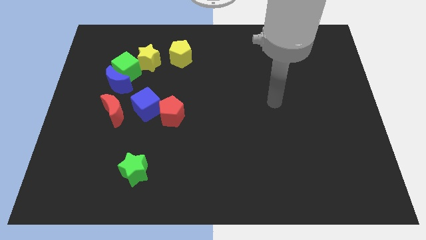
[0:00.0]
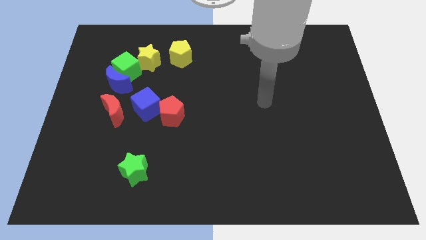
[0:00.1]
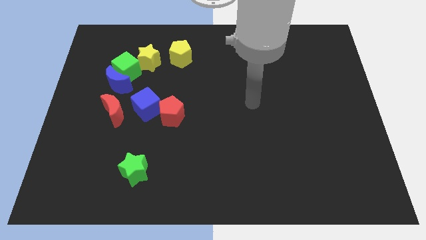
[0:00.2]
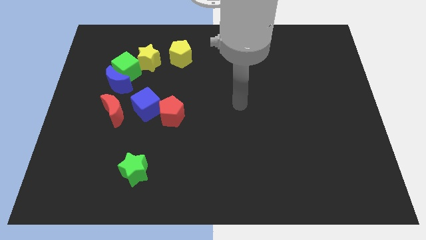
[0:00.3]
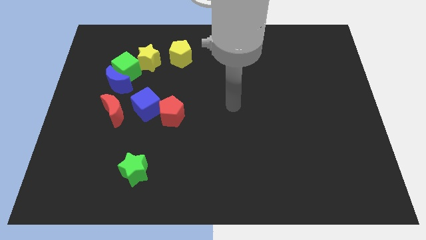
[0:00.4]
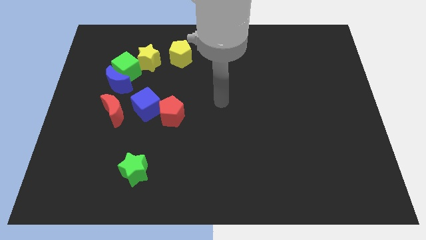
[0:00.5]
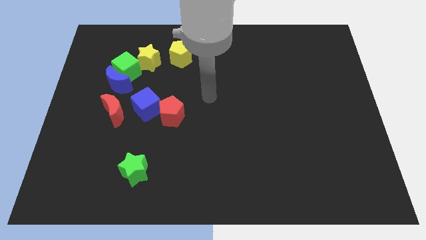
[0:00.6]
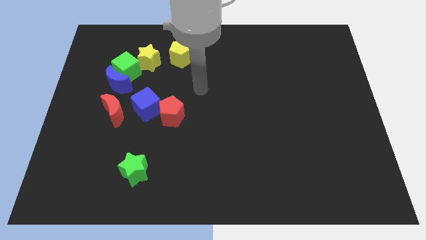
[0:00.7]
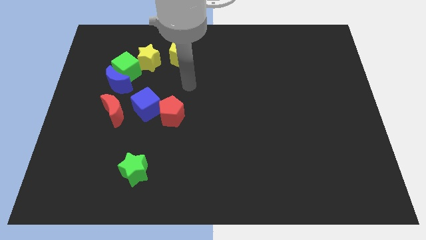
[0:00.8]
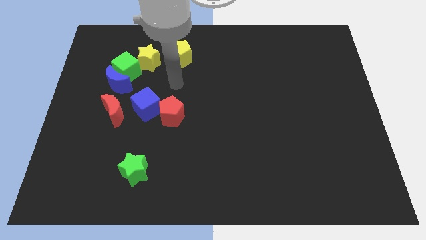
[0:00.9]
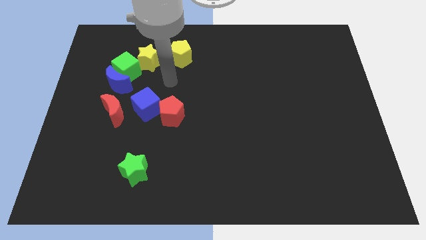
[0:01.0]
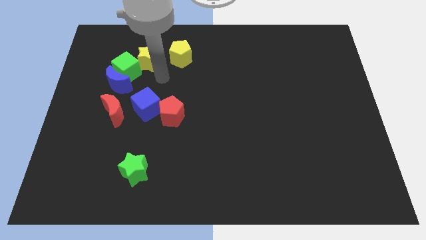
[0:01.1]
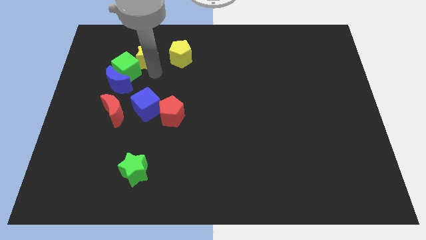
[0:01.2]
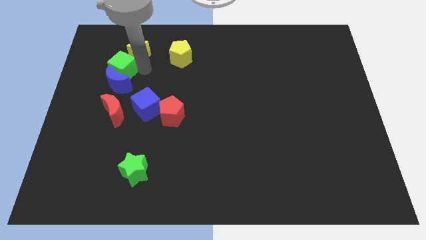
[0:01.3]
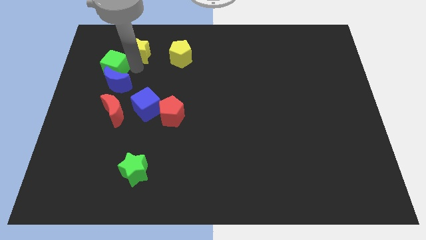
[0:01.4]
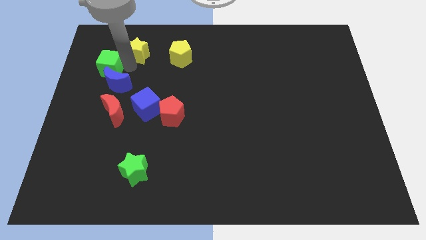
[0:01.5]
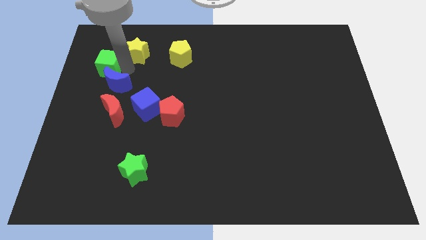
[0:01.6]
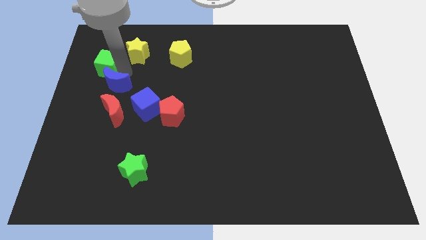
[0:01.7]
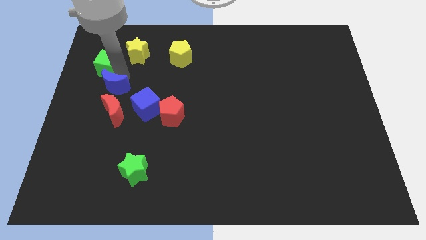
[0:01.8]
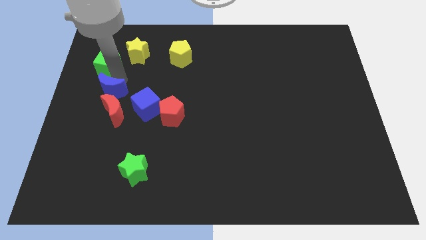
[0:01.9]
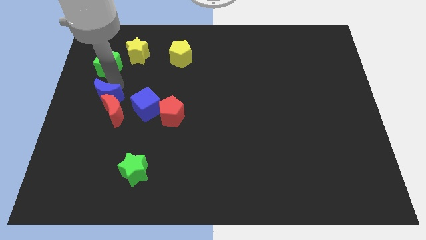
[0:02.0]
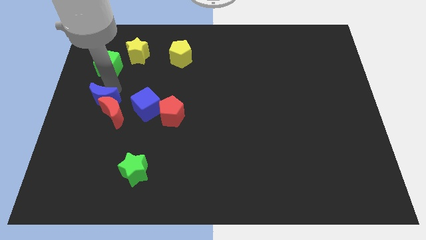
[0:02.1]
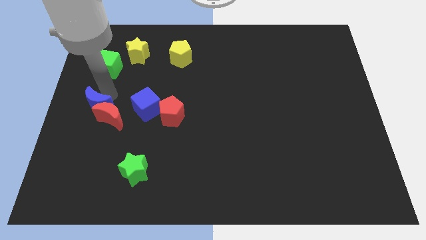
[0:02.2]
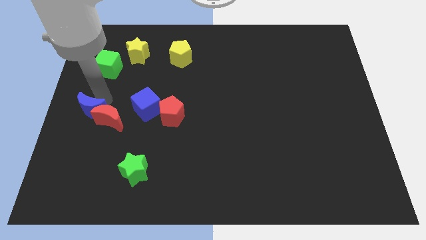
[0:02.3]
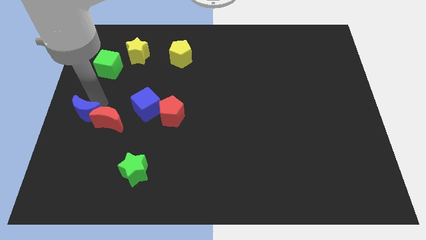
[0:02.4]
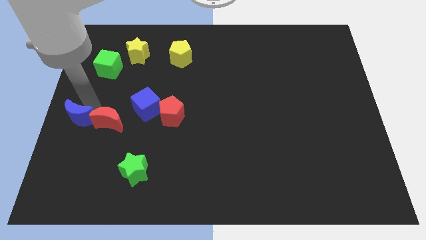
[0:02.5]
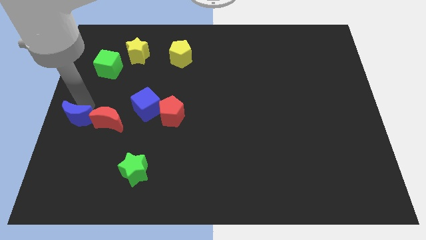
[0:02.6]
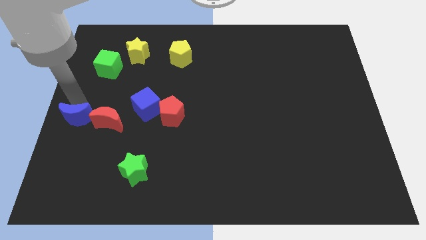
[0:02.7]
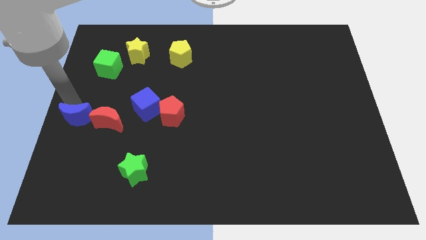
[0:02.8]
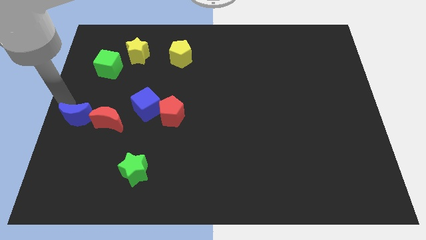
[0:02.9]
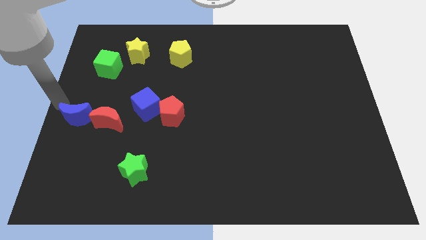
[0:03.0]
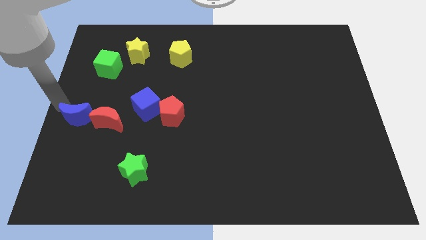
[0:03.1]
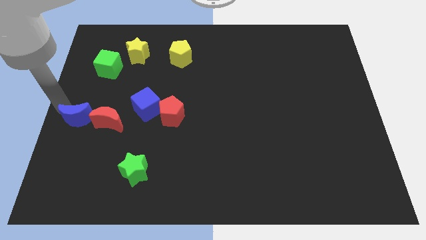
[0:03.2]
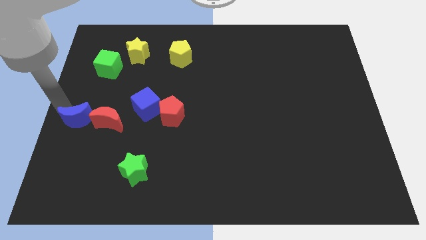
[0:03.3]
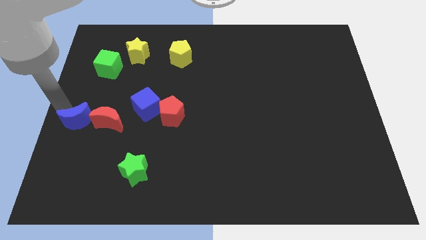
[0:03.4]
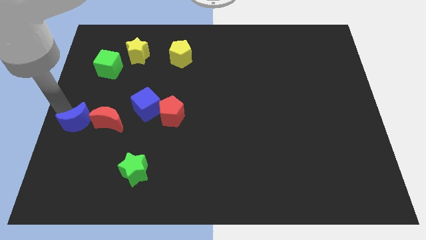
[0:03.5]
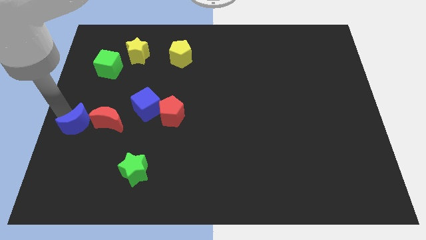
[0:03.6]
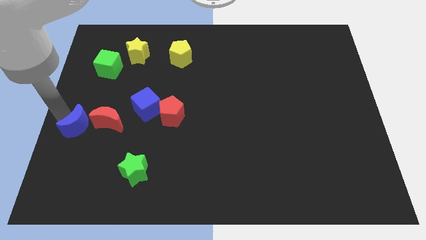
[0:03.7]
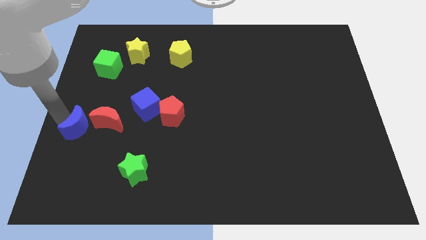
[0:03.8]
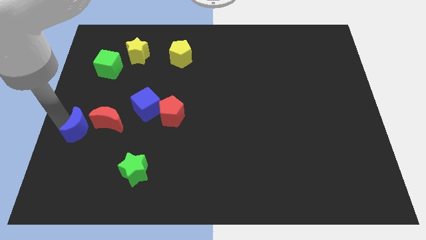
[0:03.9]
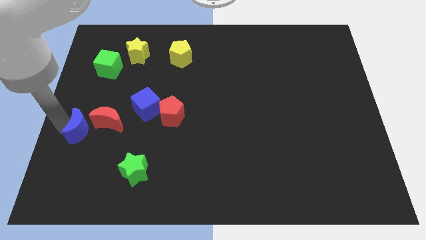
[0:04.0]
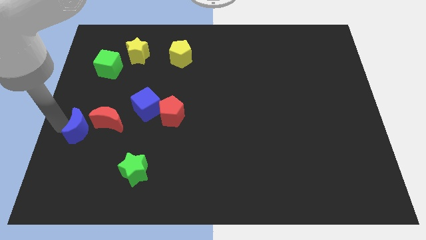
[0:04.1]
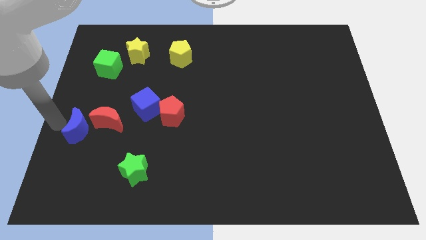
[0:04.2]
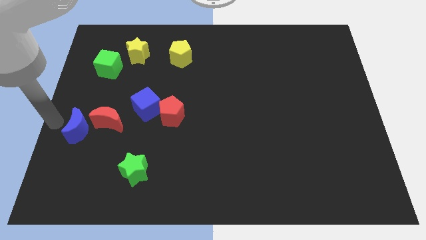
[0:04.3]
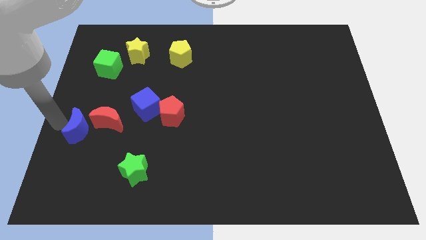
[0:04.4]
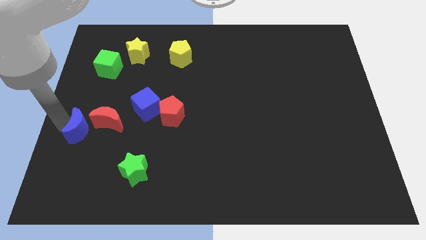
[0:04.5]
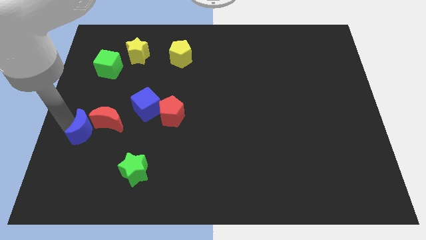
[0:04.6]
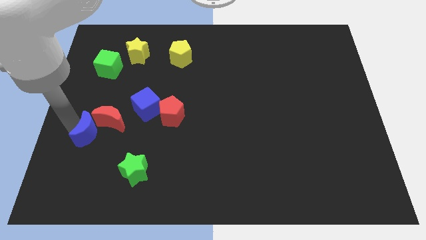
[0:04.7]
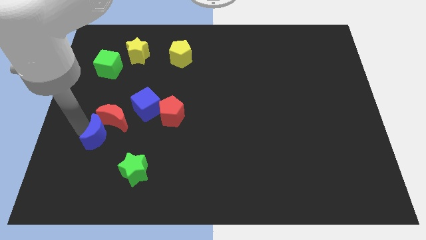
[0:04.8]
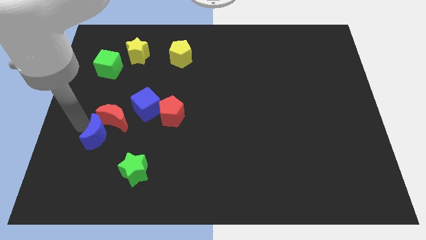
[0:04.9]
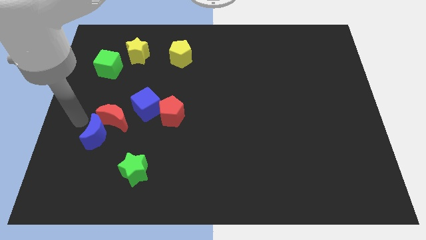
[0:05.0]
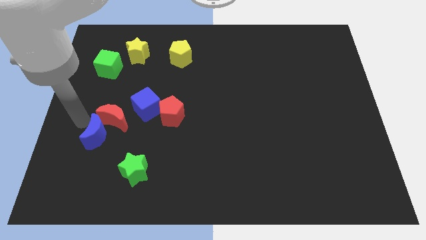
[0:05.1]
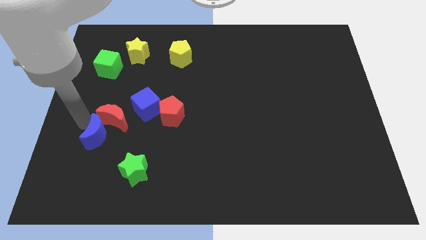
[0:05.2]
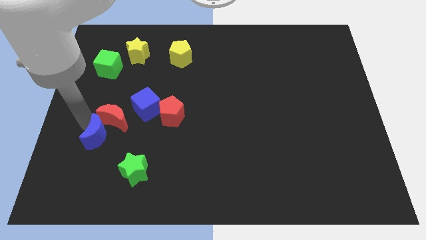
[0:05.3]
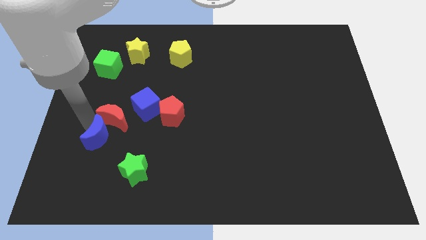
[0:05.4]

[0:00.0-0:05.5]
put the blue moon to the top left of the green star

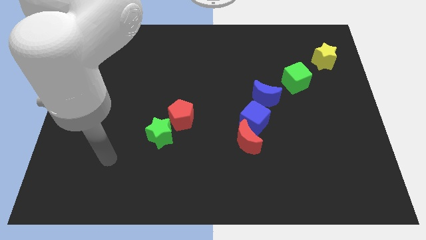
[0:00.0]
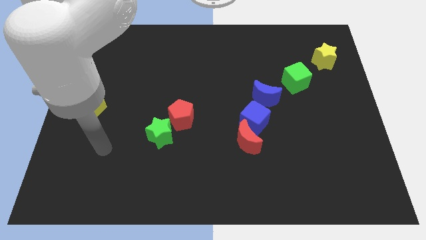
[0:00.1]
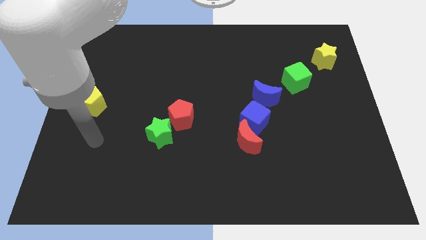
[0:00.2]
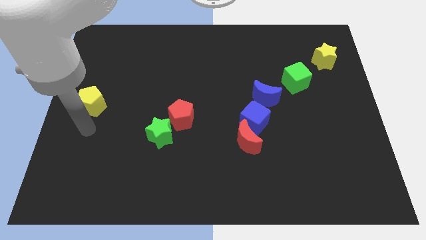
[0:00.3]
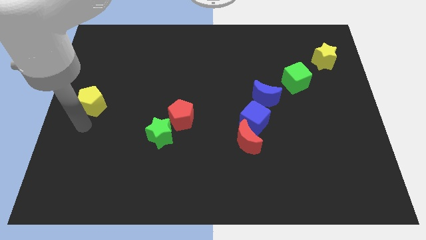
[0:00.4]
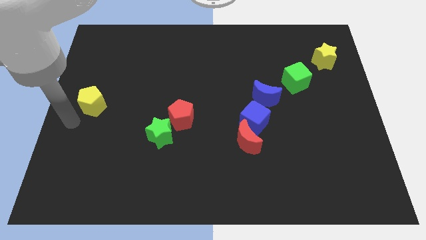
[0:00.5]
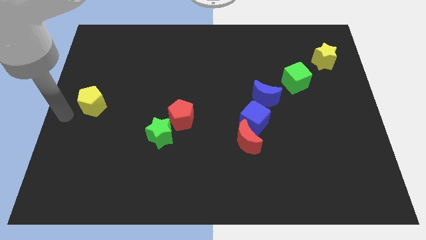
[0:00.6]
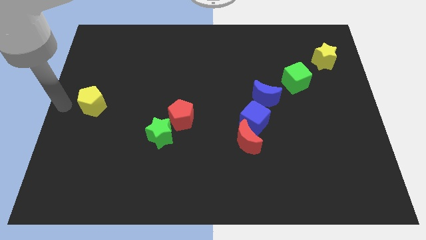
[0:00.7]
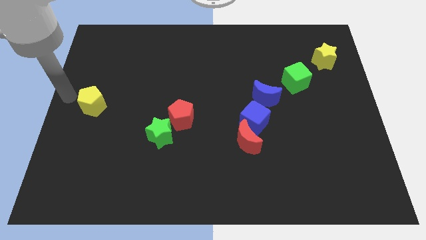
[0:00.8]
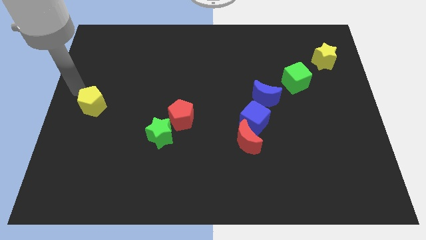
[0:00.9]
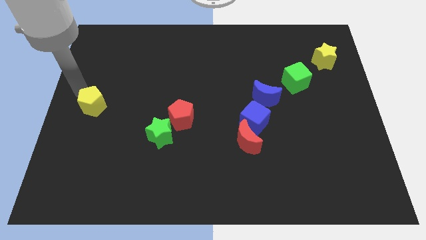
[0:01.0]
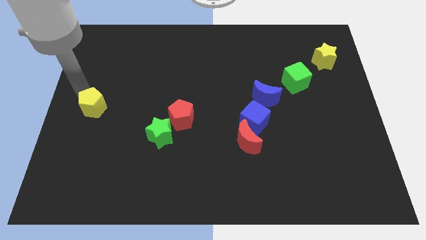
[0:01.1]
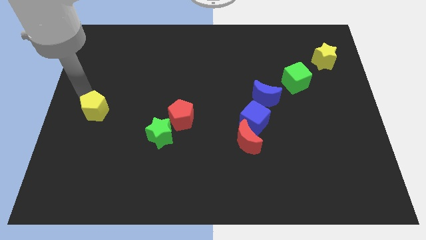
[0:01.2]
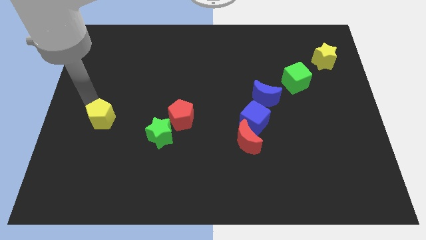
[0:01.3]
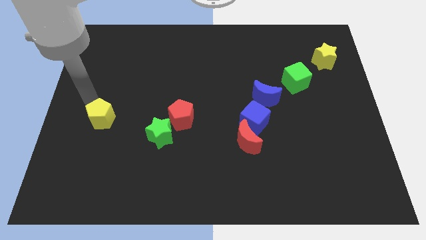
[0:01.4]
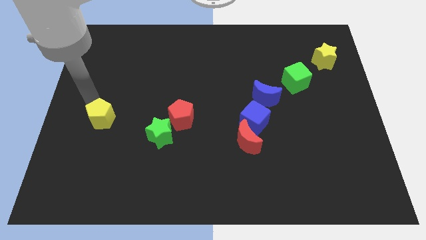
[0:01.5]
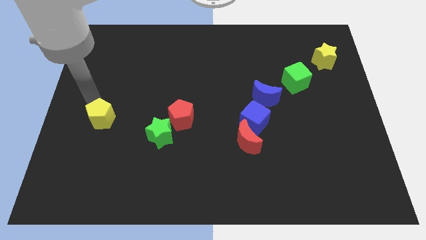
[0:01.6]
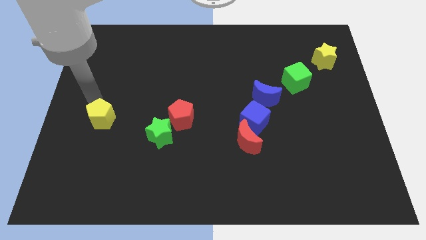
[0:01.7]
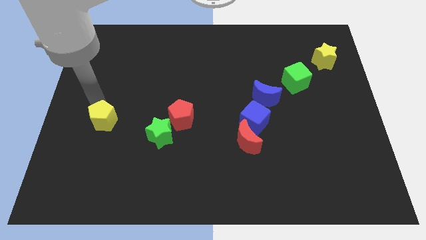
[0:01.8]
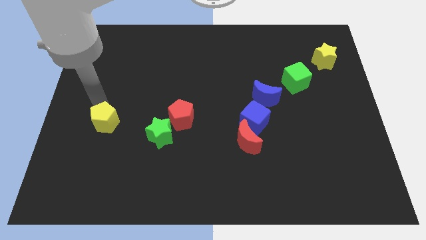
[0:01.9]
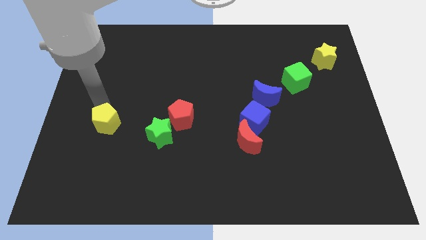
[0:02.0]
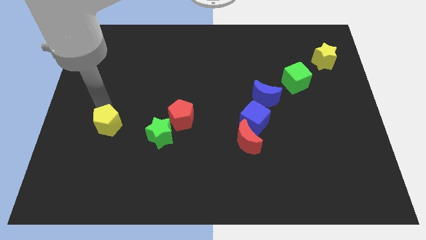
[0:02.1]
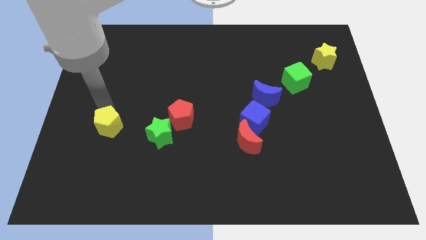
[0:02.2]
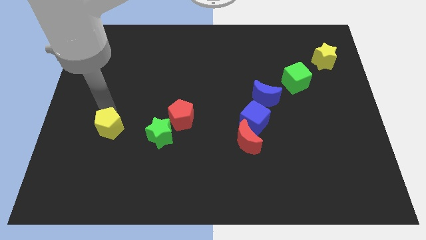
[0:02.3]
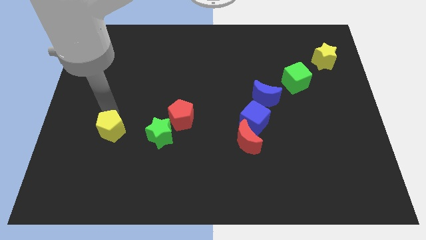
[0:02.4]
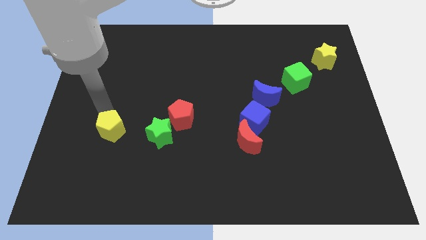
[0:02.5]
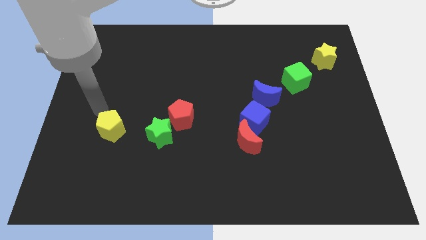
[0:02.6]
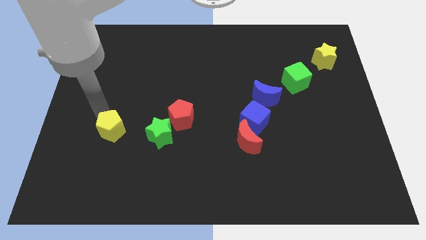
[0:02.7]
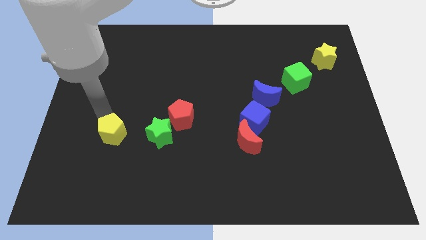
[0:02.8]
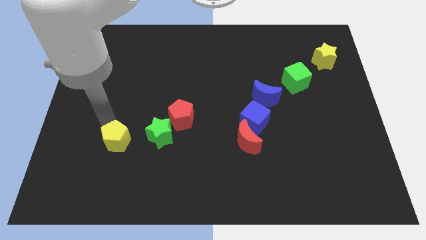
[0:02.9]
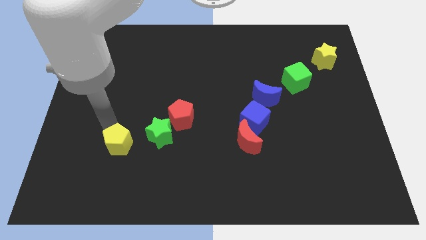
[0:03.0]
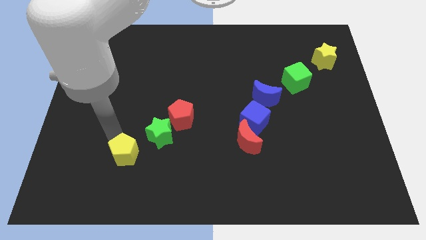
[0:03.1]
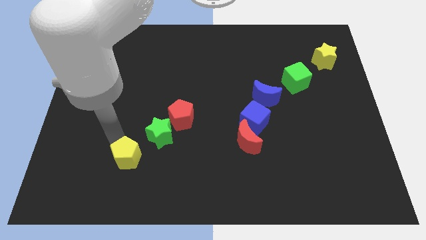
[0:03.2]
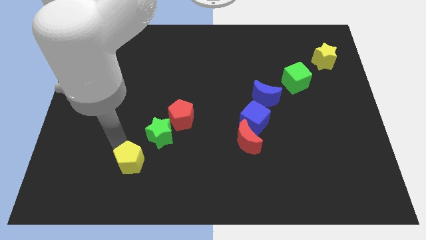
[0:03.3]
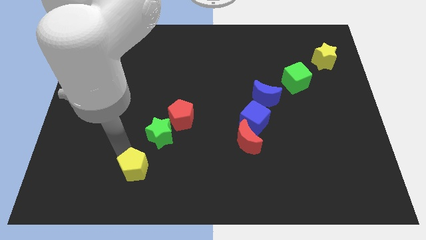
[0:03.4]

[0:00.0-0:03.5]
move the yellow pentagon below the green star
